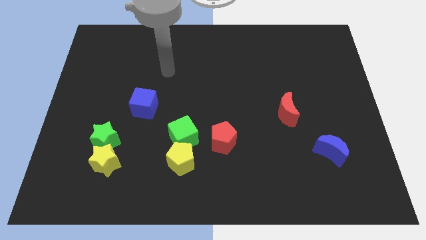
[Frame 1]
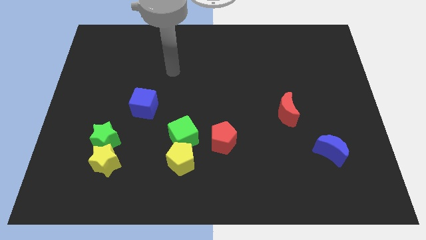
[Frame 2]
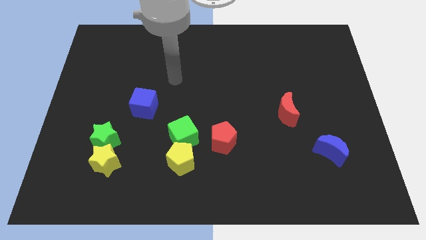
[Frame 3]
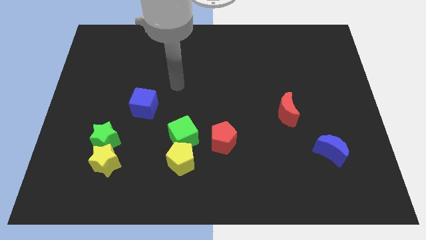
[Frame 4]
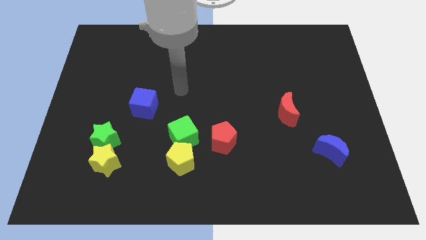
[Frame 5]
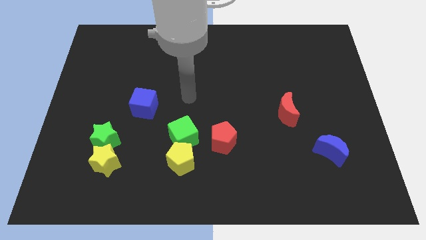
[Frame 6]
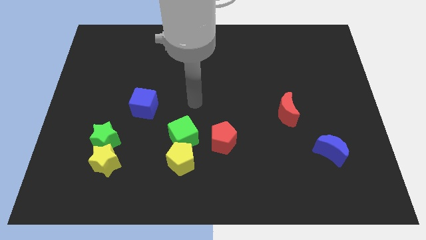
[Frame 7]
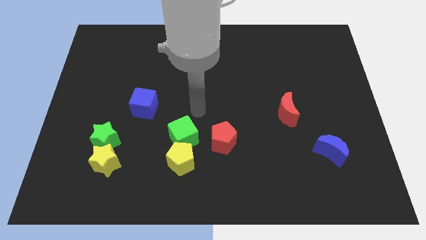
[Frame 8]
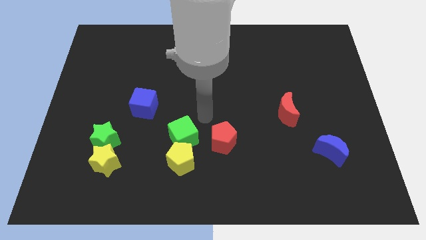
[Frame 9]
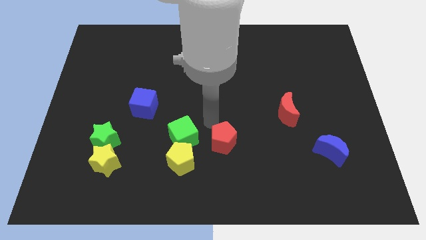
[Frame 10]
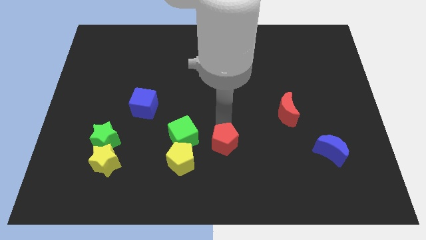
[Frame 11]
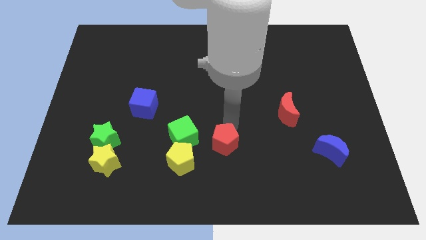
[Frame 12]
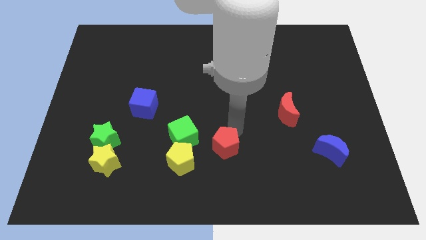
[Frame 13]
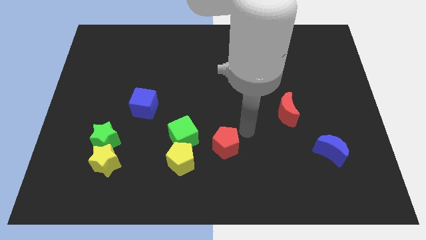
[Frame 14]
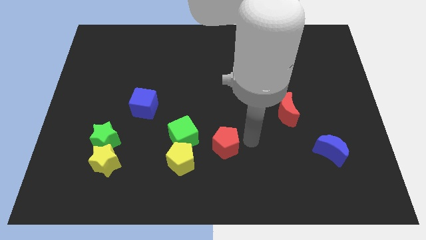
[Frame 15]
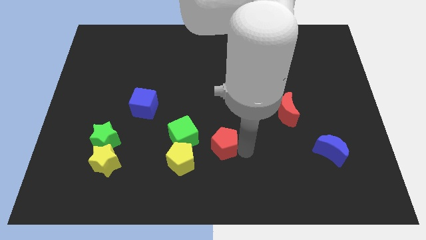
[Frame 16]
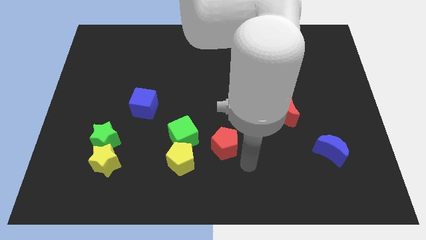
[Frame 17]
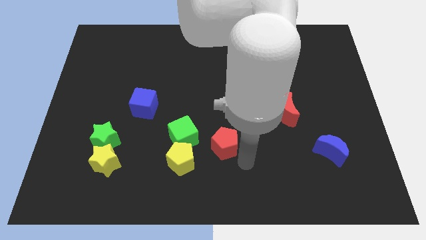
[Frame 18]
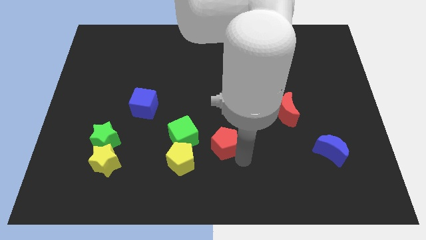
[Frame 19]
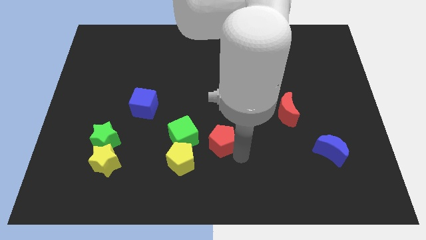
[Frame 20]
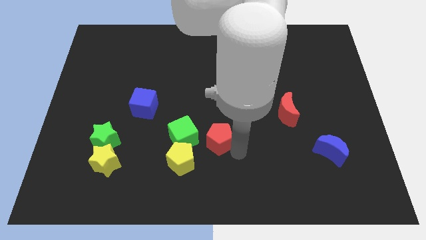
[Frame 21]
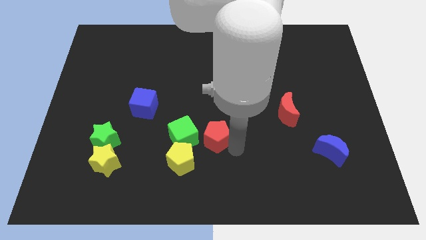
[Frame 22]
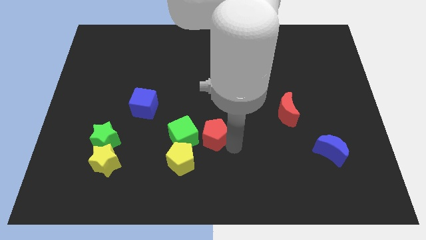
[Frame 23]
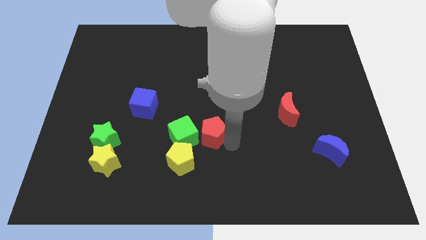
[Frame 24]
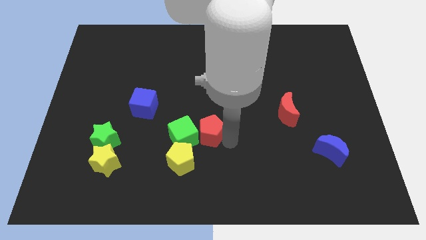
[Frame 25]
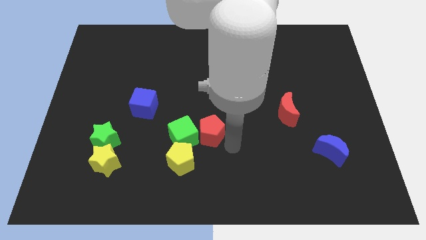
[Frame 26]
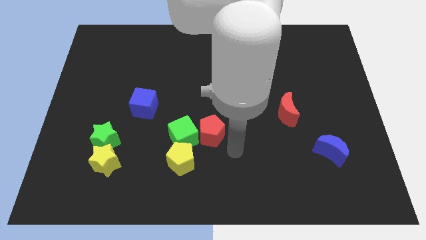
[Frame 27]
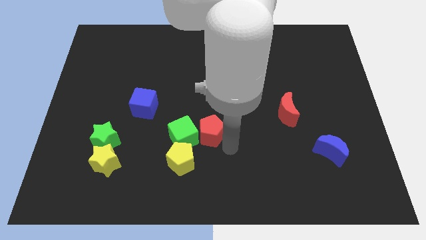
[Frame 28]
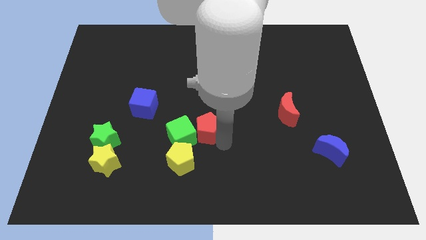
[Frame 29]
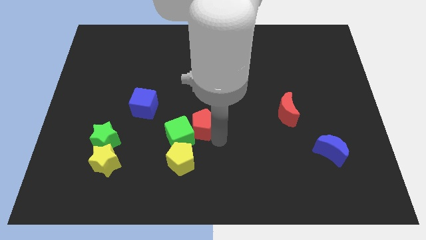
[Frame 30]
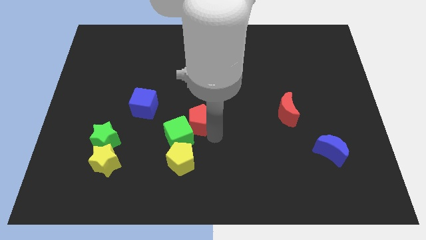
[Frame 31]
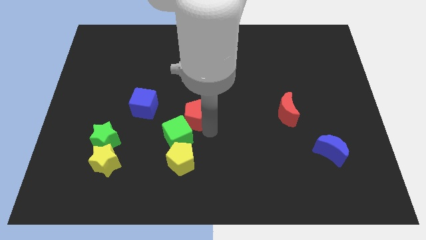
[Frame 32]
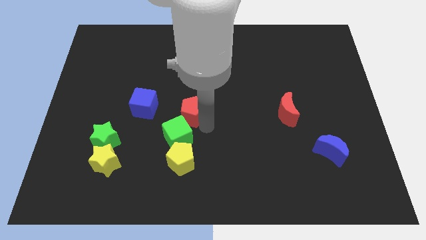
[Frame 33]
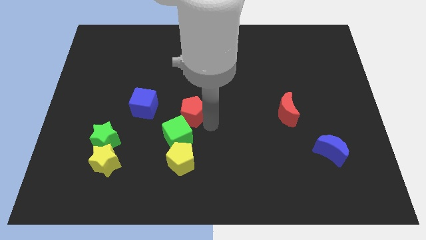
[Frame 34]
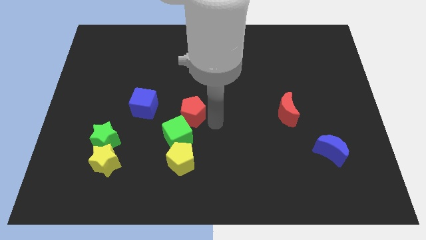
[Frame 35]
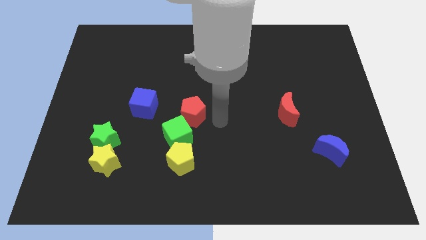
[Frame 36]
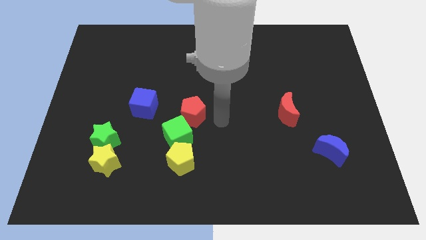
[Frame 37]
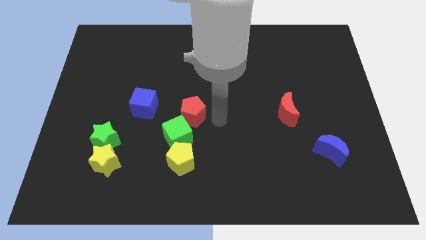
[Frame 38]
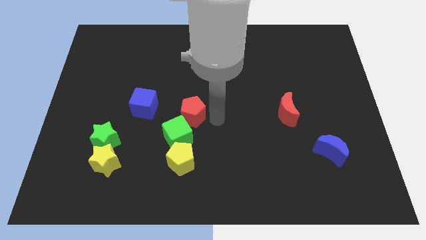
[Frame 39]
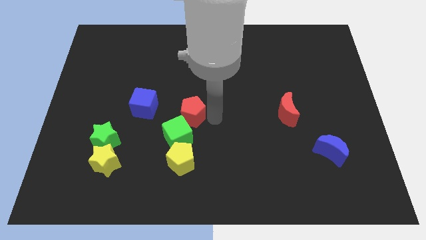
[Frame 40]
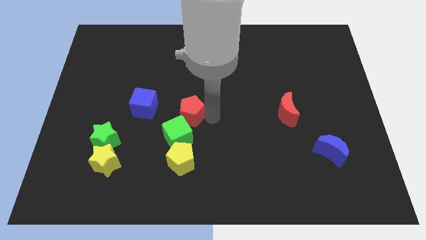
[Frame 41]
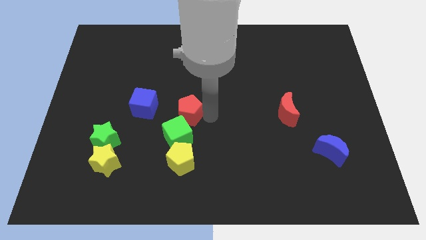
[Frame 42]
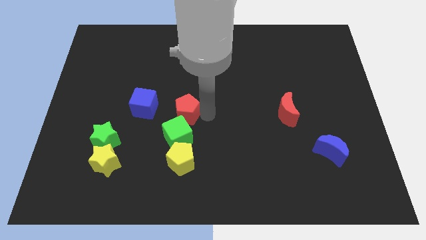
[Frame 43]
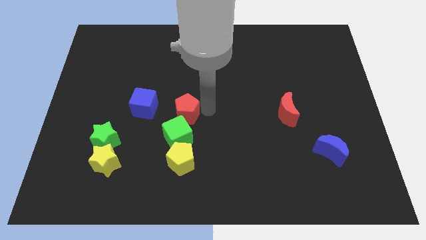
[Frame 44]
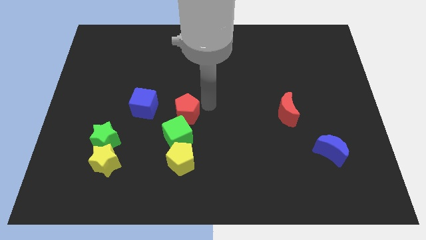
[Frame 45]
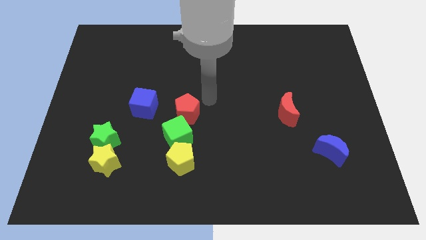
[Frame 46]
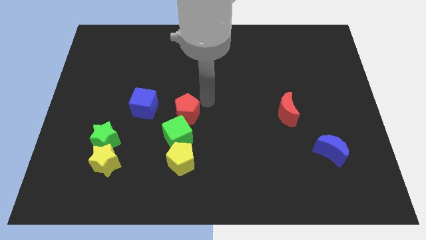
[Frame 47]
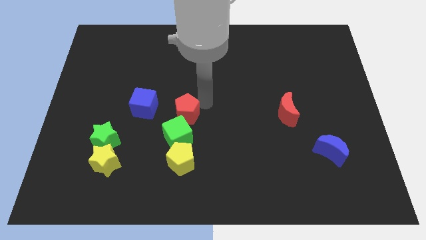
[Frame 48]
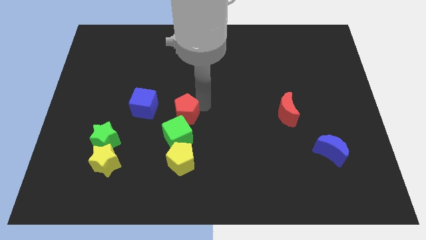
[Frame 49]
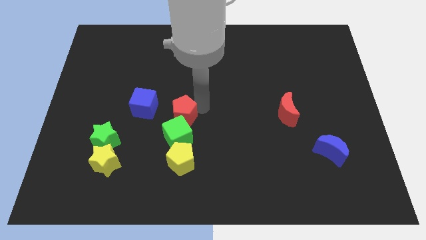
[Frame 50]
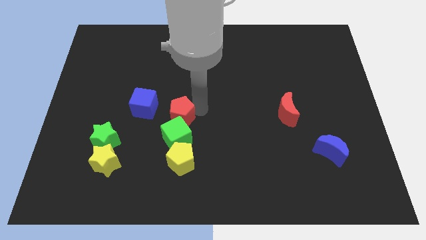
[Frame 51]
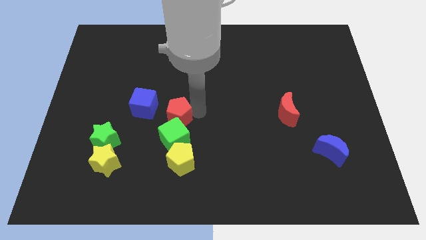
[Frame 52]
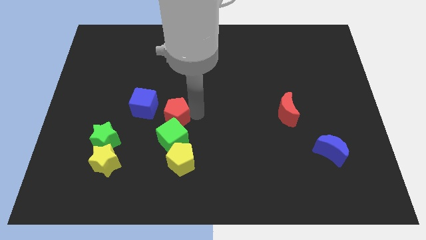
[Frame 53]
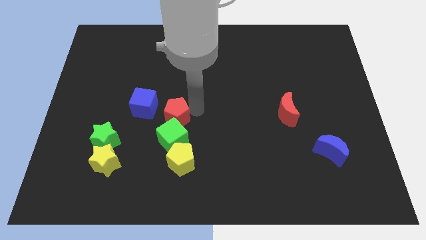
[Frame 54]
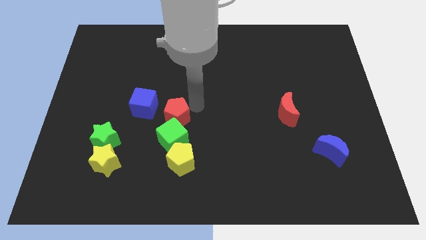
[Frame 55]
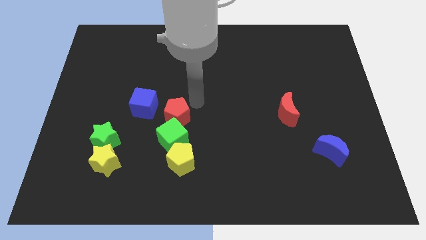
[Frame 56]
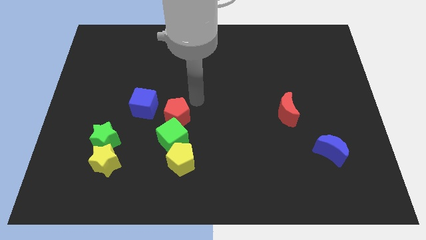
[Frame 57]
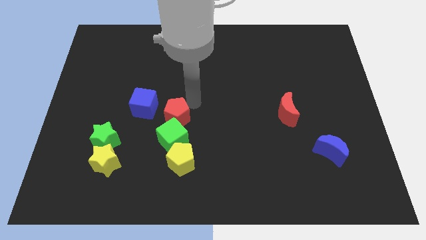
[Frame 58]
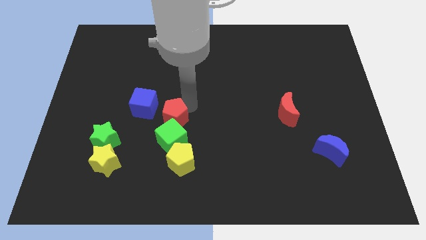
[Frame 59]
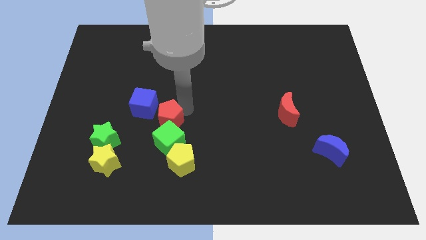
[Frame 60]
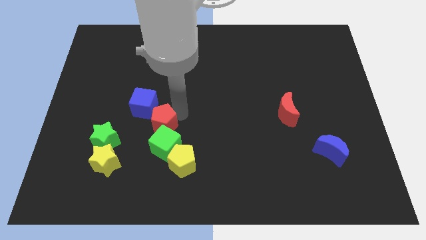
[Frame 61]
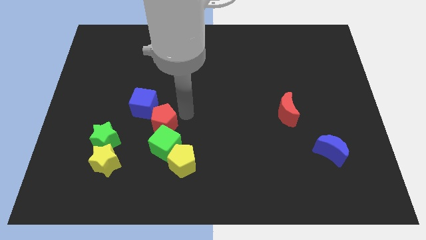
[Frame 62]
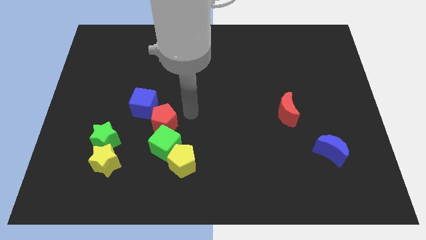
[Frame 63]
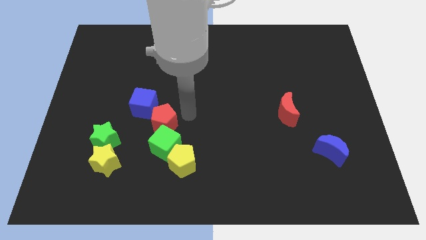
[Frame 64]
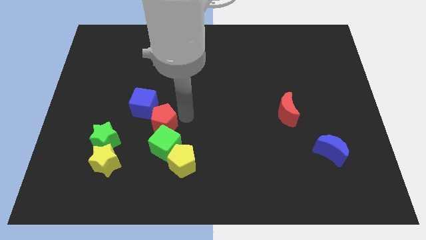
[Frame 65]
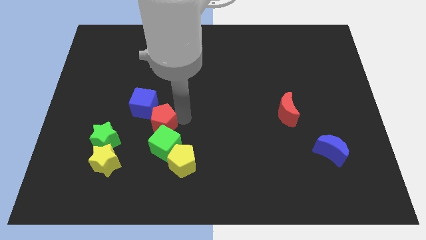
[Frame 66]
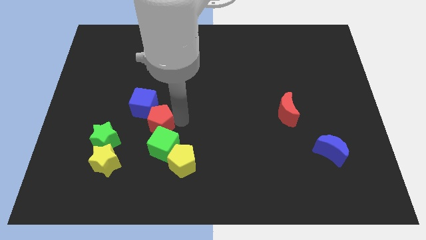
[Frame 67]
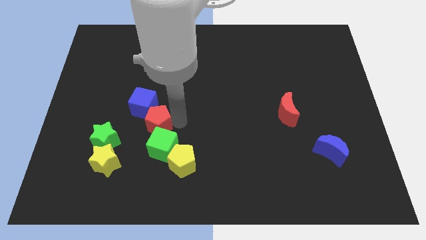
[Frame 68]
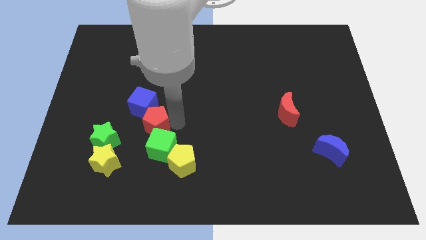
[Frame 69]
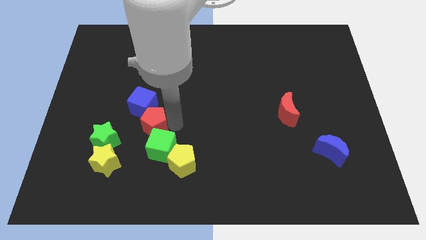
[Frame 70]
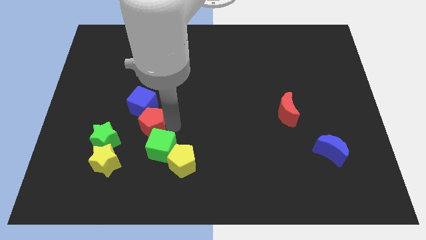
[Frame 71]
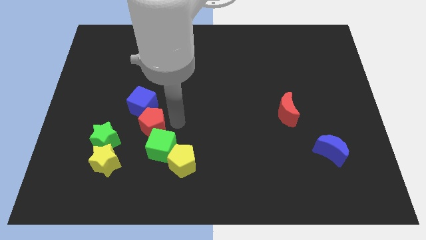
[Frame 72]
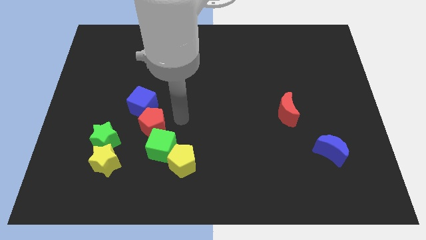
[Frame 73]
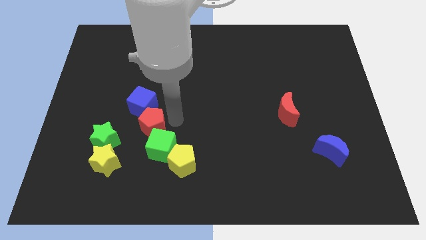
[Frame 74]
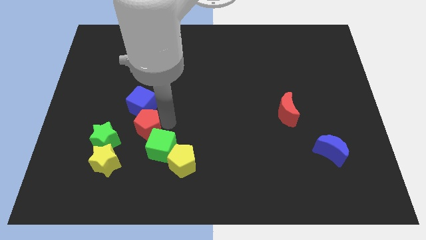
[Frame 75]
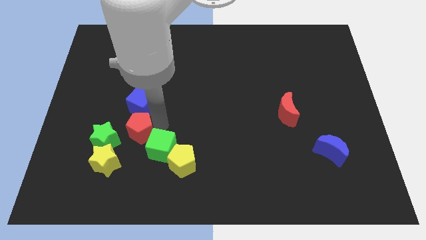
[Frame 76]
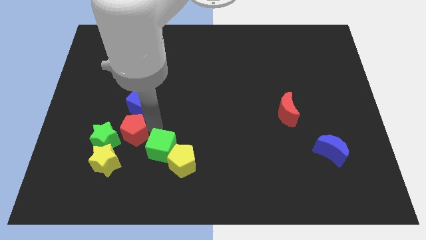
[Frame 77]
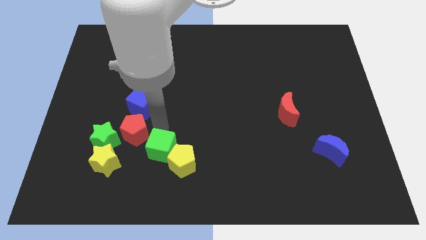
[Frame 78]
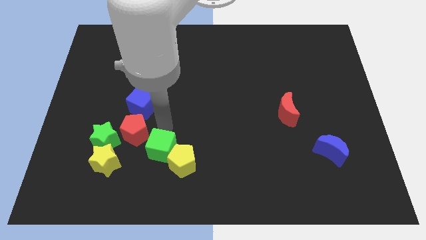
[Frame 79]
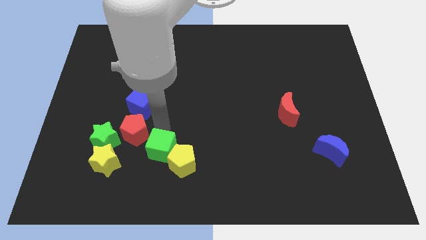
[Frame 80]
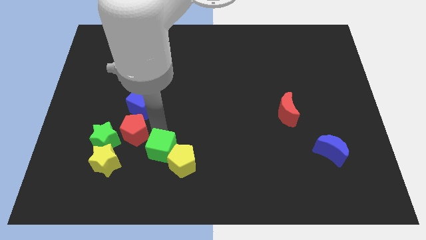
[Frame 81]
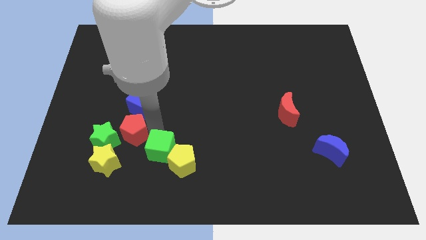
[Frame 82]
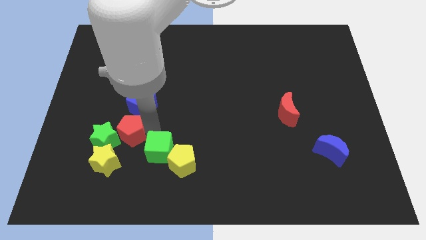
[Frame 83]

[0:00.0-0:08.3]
push the red pentagon close to the green star
